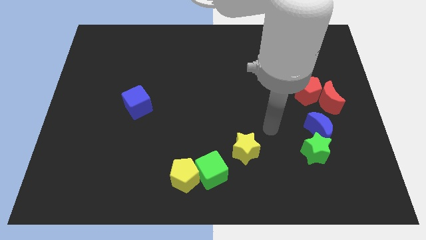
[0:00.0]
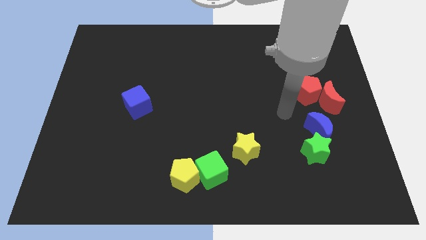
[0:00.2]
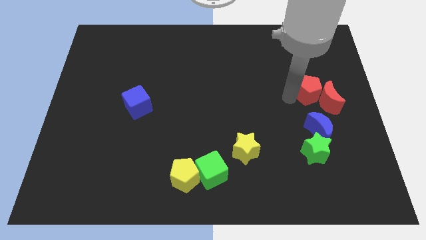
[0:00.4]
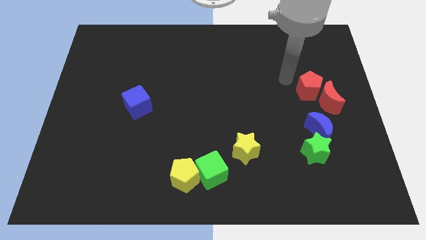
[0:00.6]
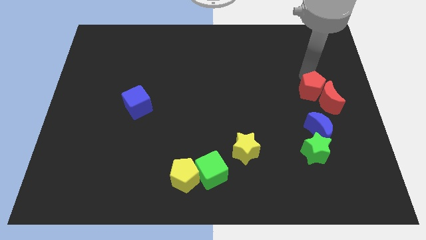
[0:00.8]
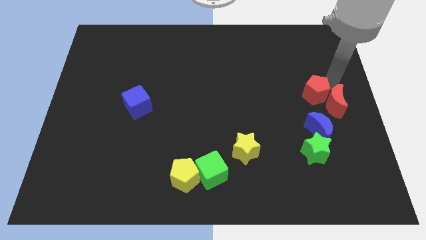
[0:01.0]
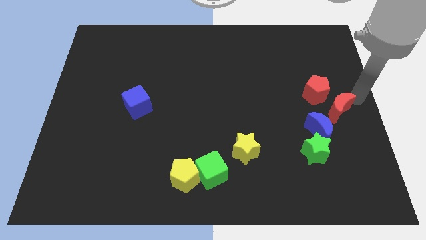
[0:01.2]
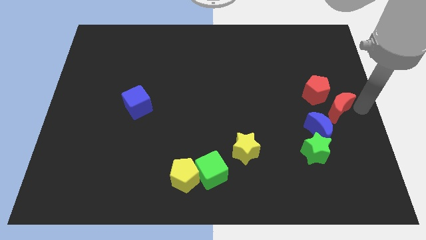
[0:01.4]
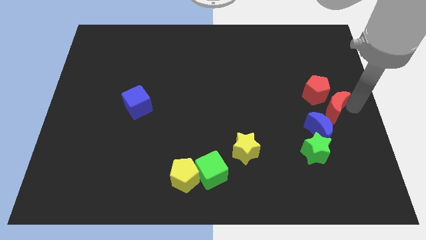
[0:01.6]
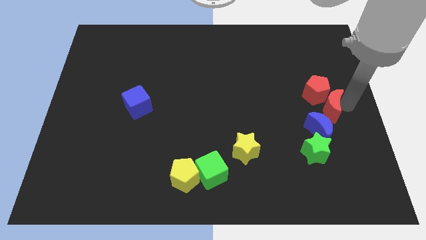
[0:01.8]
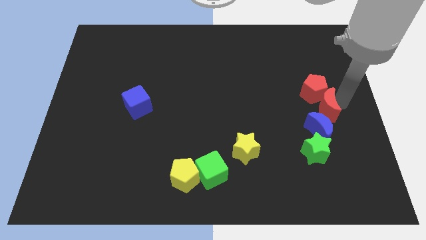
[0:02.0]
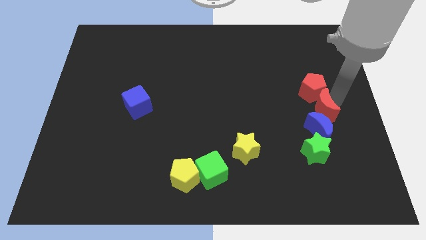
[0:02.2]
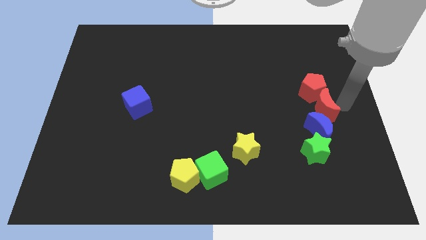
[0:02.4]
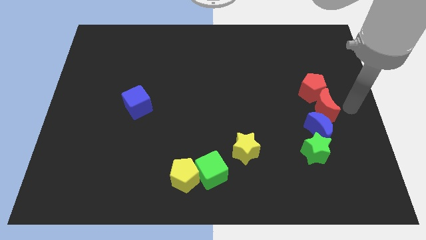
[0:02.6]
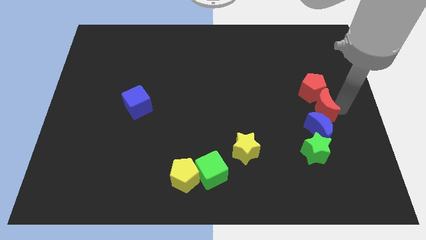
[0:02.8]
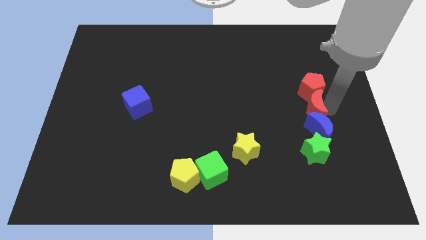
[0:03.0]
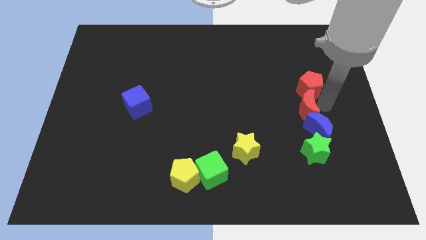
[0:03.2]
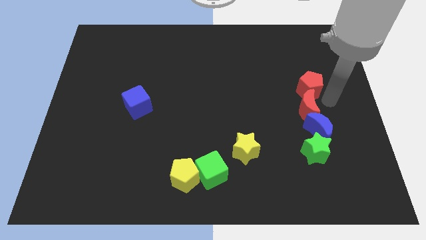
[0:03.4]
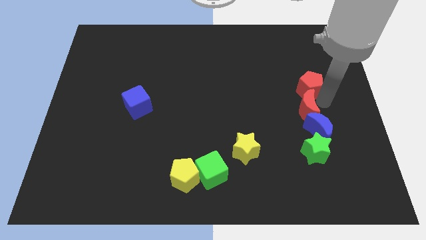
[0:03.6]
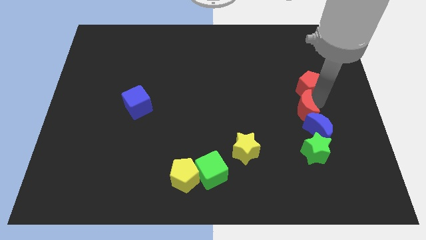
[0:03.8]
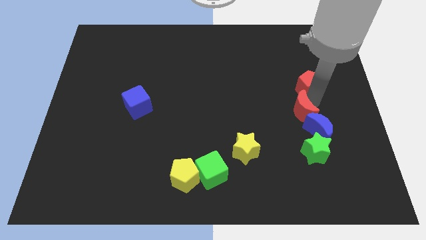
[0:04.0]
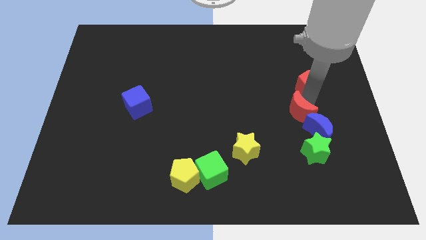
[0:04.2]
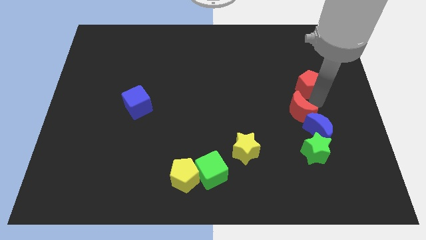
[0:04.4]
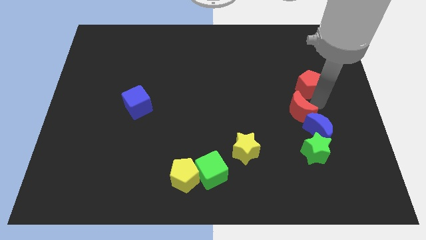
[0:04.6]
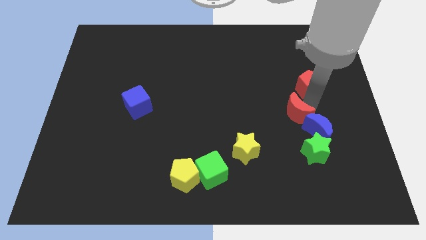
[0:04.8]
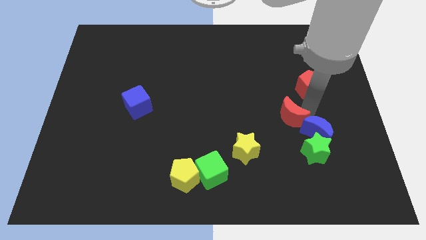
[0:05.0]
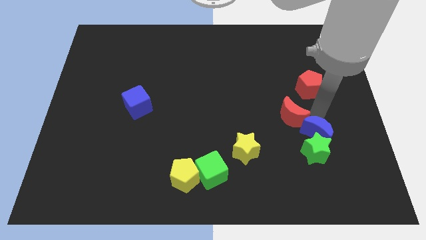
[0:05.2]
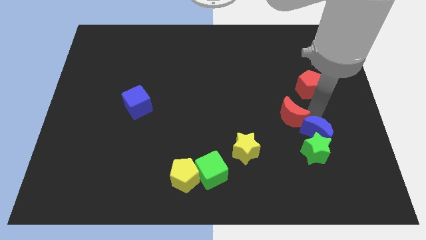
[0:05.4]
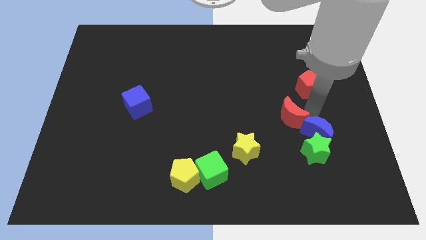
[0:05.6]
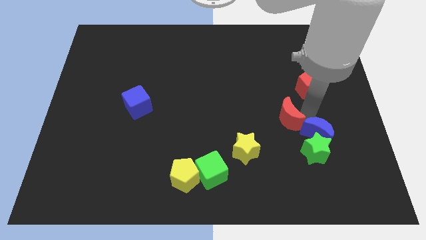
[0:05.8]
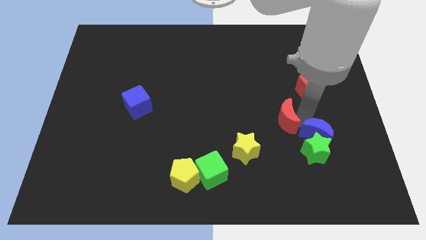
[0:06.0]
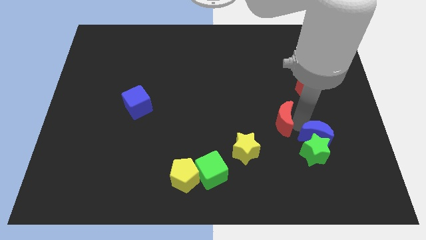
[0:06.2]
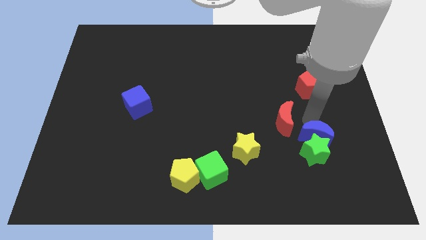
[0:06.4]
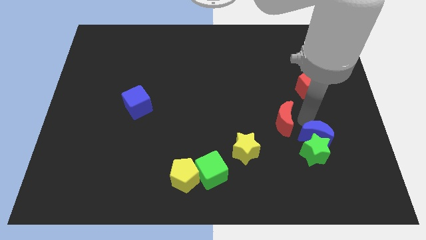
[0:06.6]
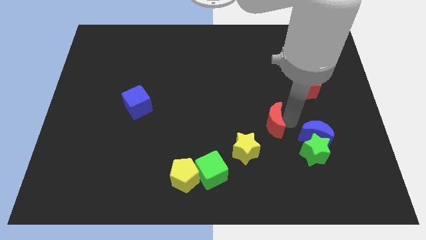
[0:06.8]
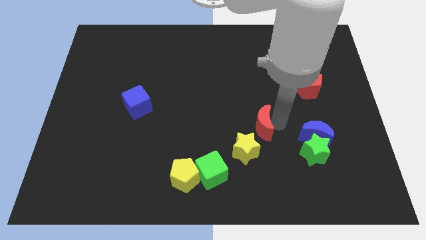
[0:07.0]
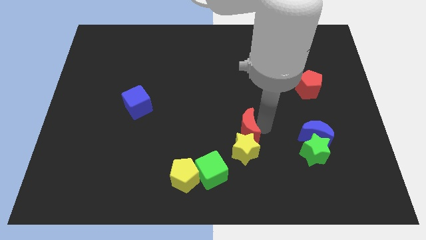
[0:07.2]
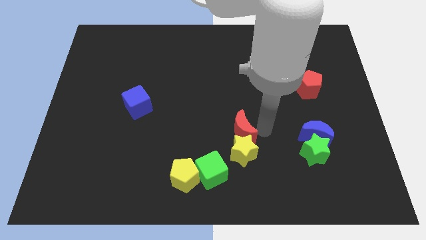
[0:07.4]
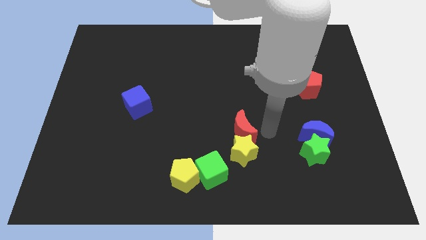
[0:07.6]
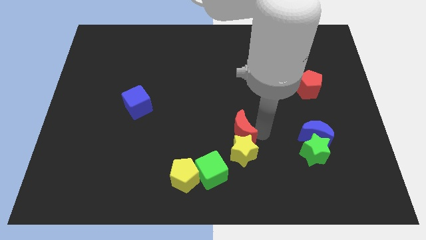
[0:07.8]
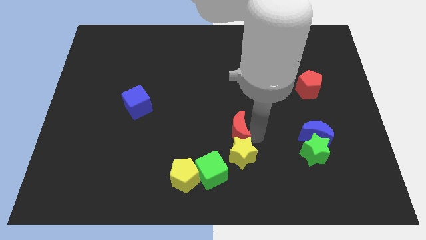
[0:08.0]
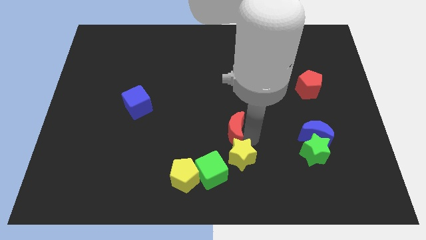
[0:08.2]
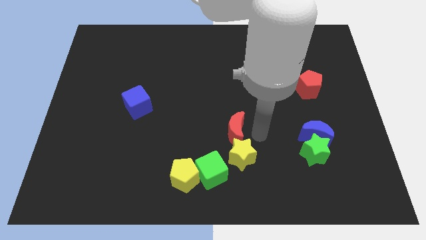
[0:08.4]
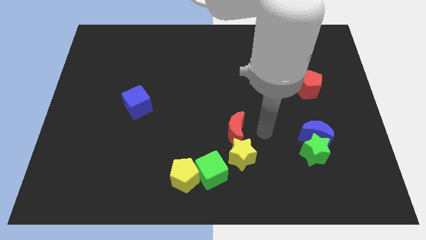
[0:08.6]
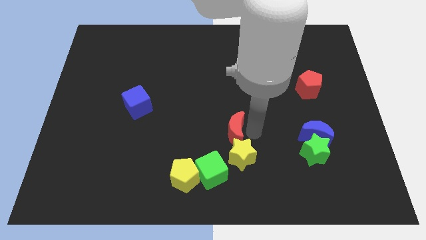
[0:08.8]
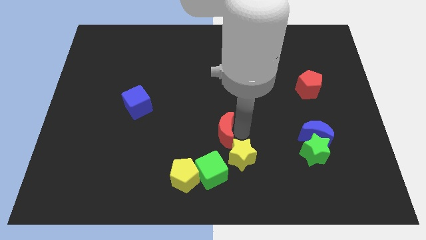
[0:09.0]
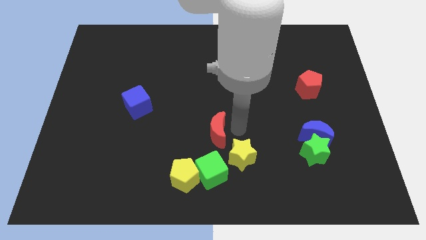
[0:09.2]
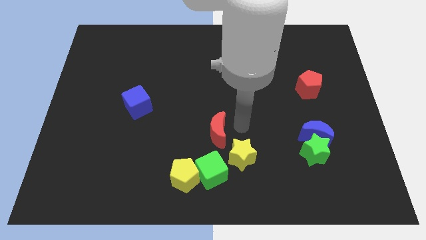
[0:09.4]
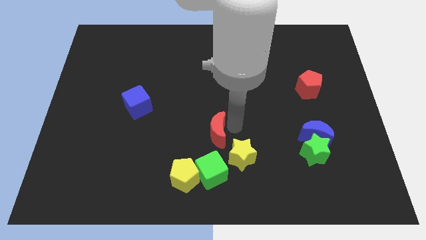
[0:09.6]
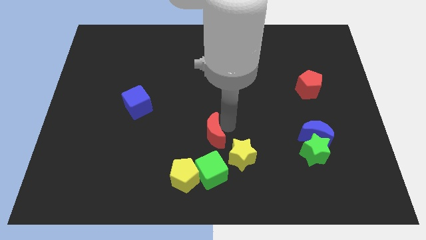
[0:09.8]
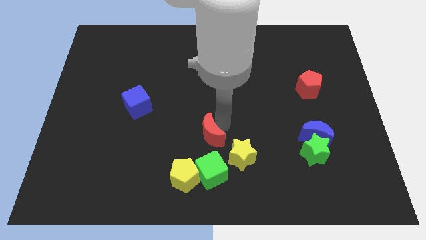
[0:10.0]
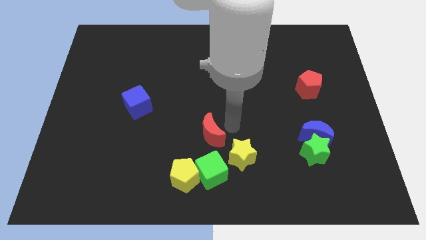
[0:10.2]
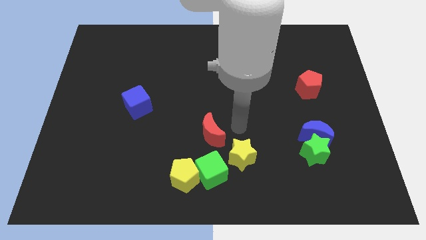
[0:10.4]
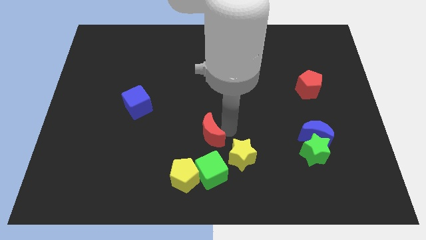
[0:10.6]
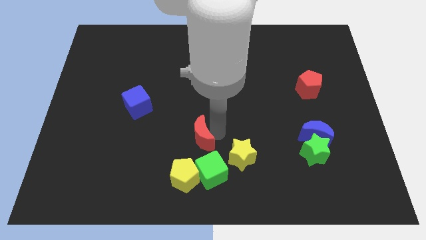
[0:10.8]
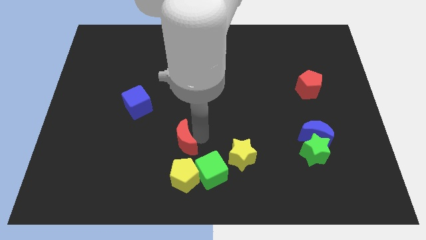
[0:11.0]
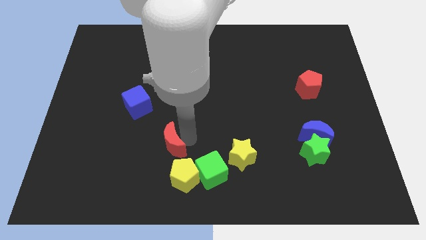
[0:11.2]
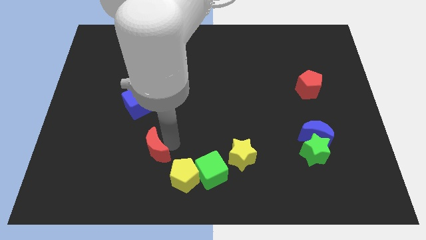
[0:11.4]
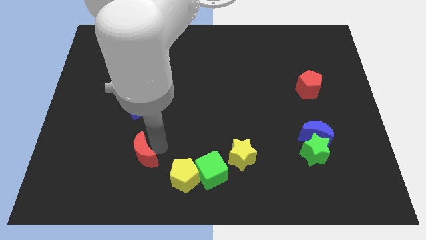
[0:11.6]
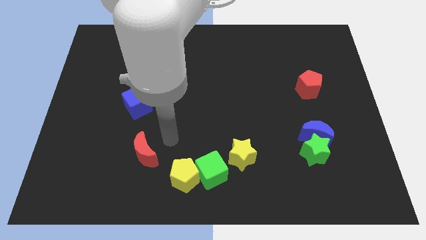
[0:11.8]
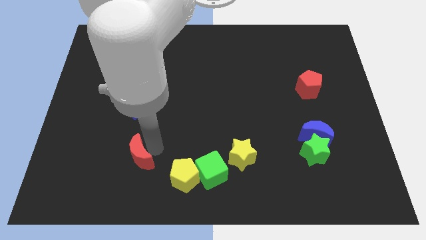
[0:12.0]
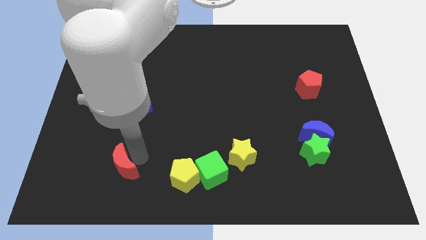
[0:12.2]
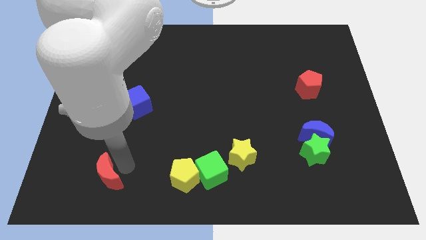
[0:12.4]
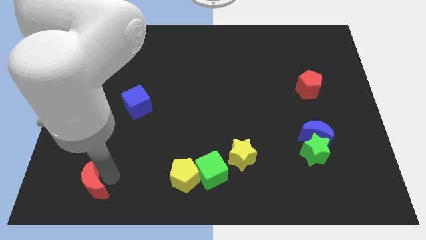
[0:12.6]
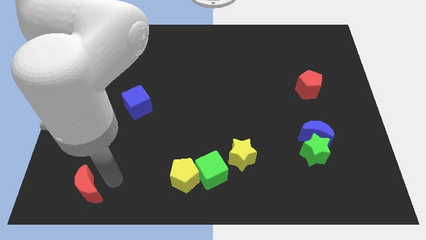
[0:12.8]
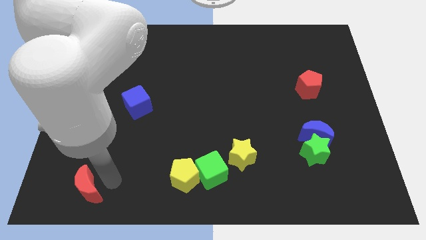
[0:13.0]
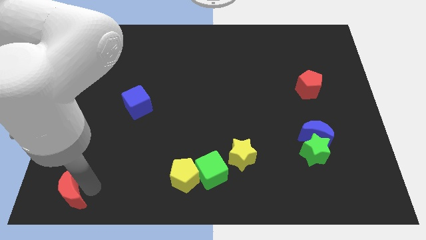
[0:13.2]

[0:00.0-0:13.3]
put the red moon to the bottom left of the board
